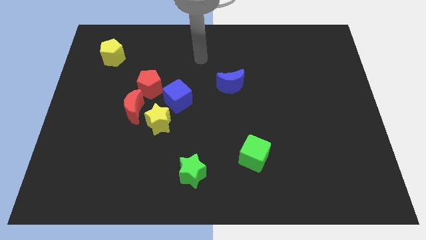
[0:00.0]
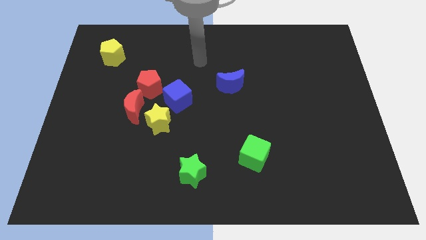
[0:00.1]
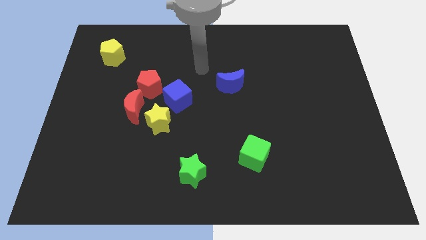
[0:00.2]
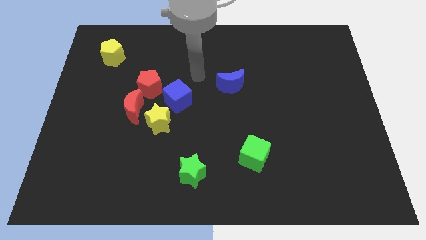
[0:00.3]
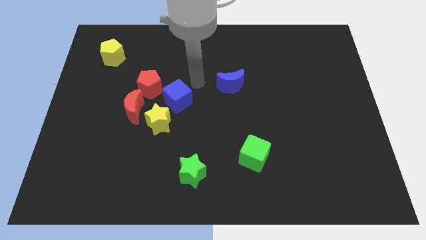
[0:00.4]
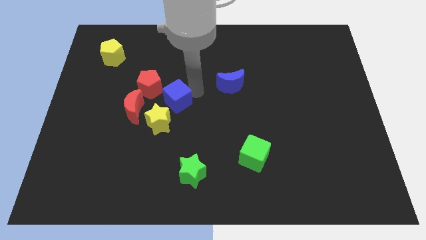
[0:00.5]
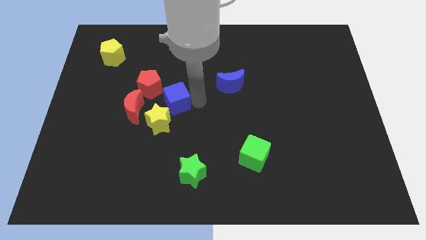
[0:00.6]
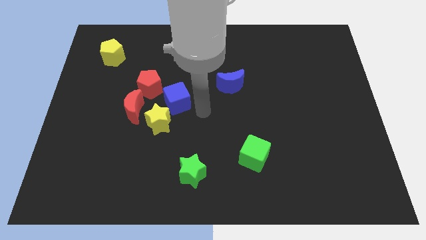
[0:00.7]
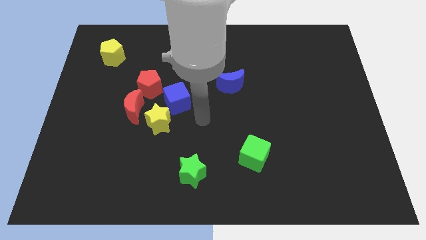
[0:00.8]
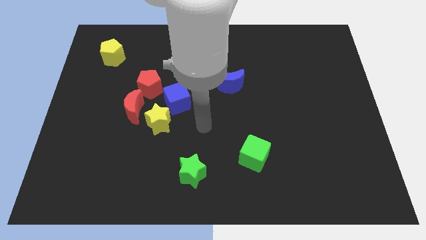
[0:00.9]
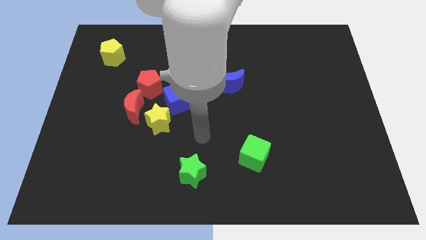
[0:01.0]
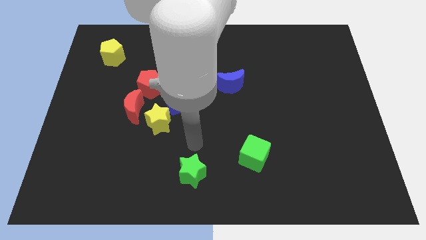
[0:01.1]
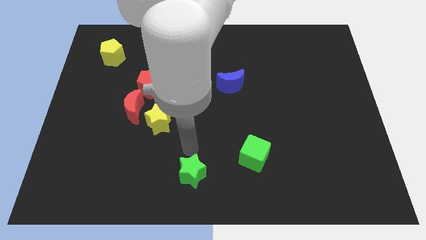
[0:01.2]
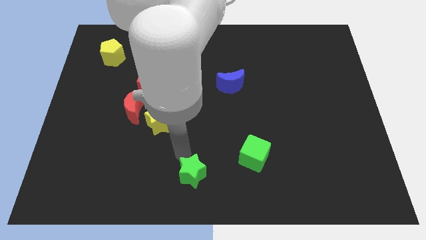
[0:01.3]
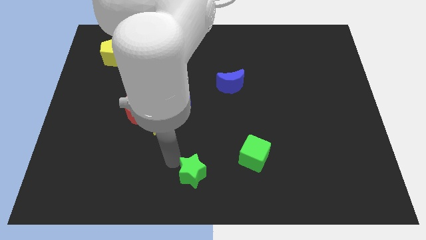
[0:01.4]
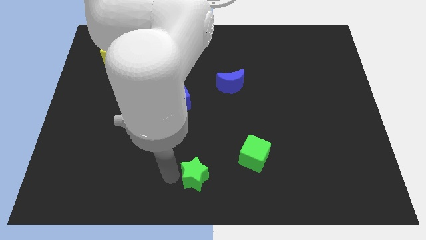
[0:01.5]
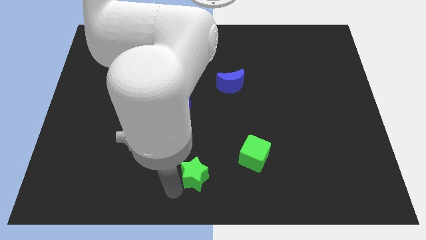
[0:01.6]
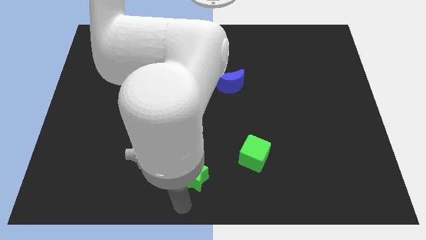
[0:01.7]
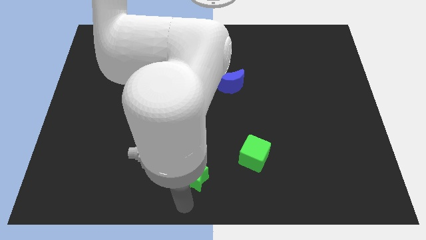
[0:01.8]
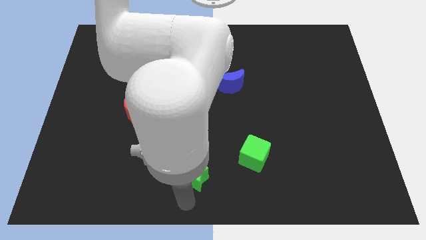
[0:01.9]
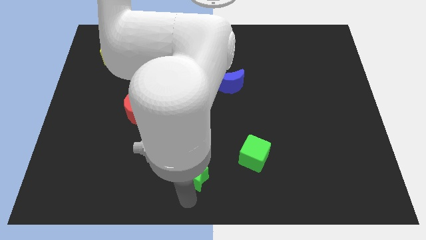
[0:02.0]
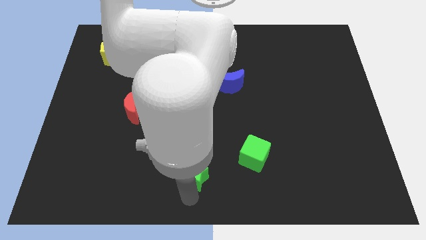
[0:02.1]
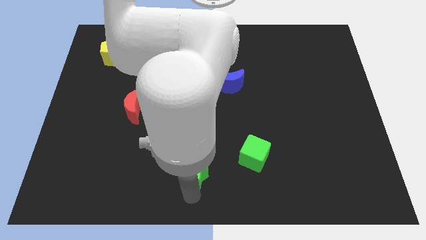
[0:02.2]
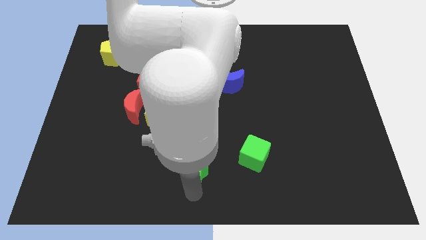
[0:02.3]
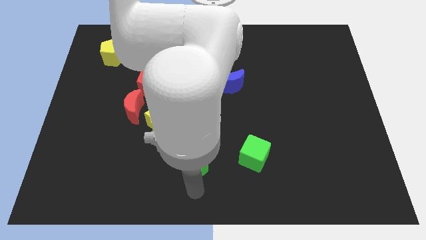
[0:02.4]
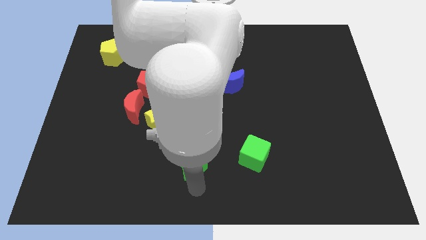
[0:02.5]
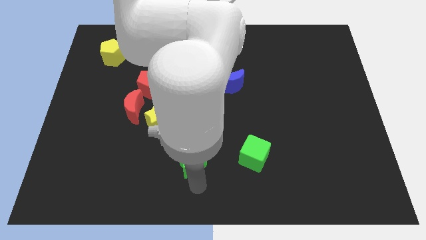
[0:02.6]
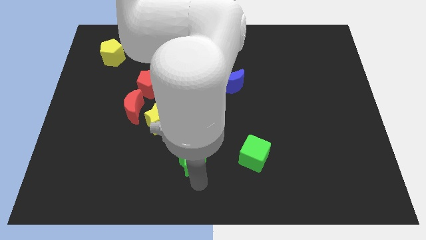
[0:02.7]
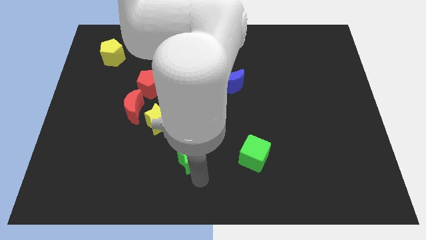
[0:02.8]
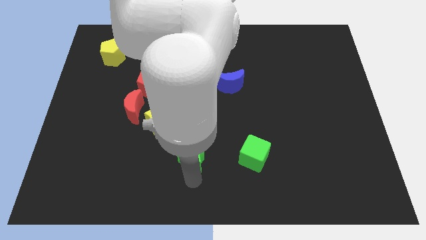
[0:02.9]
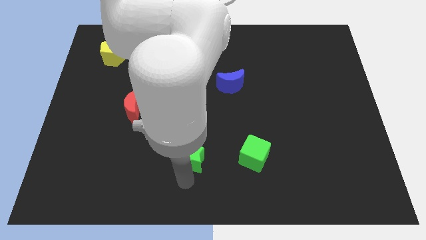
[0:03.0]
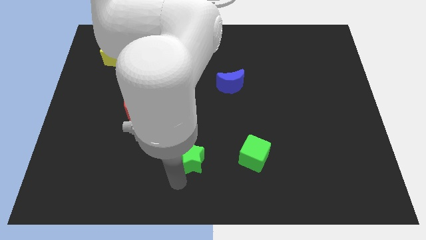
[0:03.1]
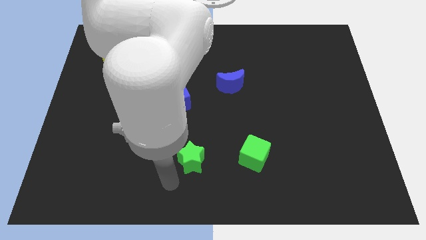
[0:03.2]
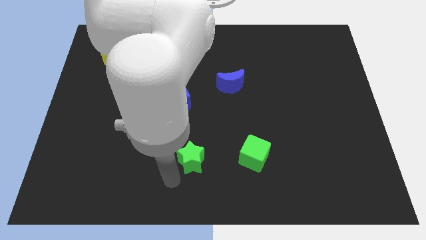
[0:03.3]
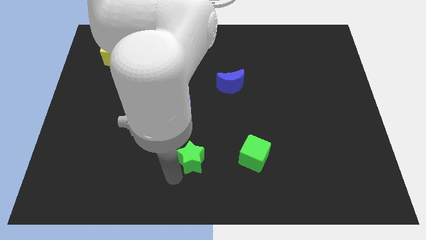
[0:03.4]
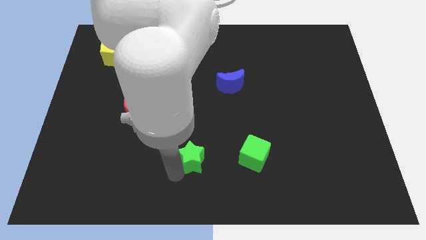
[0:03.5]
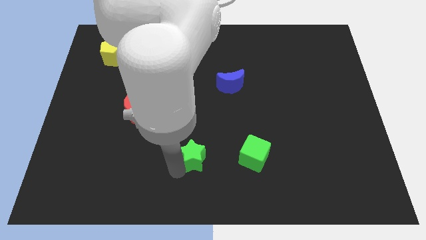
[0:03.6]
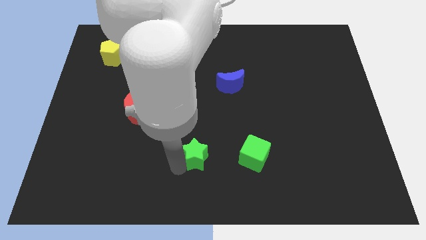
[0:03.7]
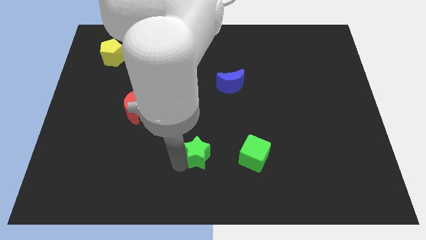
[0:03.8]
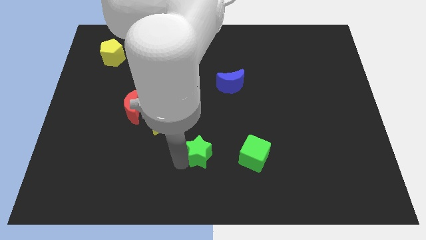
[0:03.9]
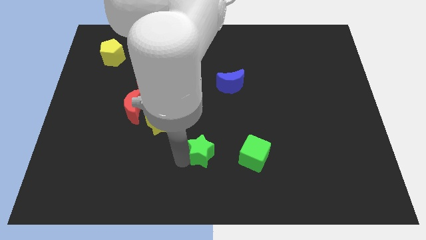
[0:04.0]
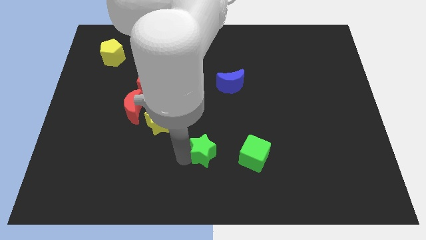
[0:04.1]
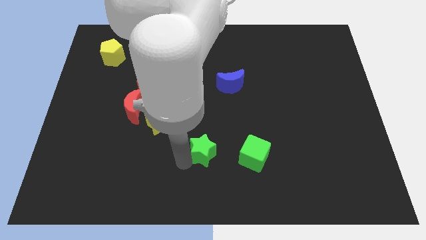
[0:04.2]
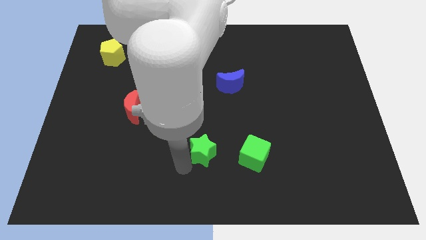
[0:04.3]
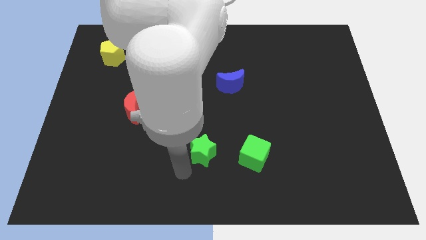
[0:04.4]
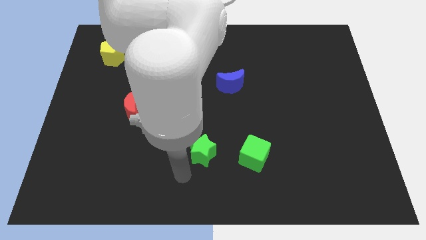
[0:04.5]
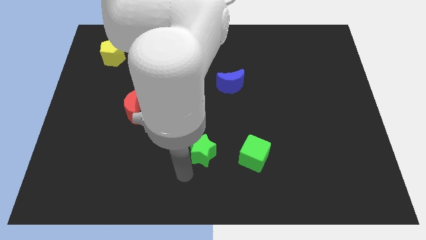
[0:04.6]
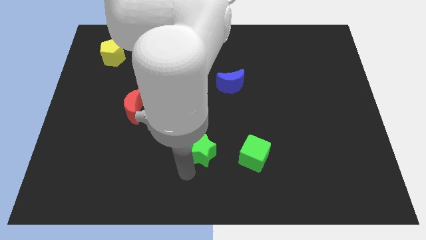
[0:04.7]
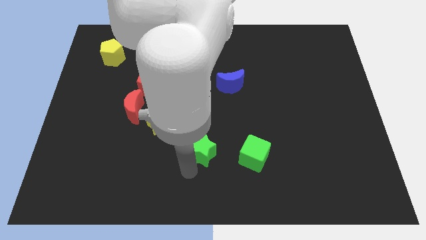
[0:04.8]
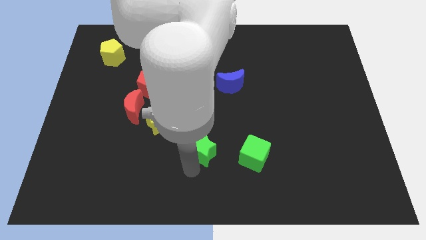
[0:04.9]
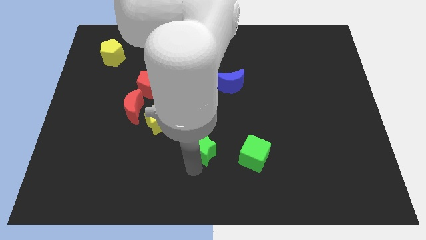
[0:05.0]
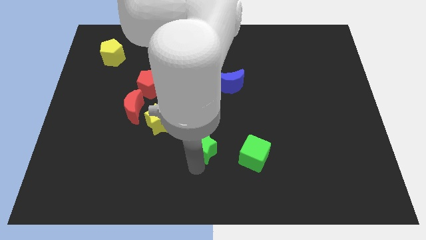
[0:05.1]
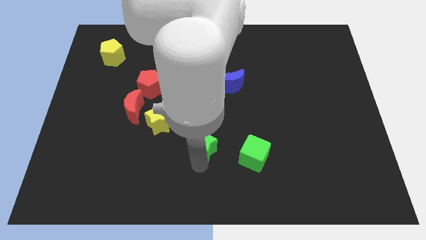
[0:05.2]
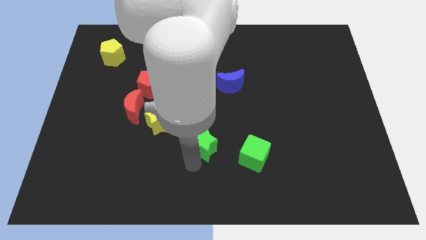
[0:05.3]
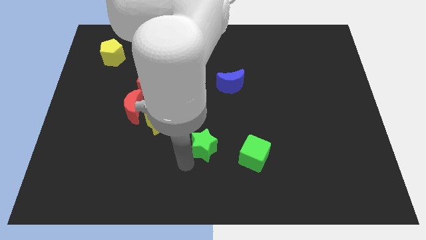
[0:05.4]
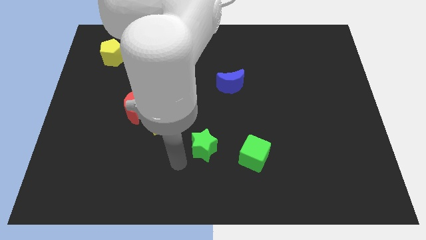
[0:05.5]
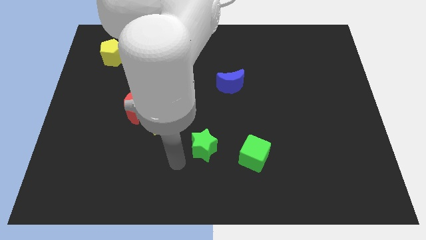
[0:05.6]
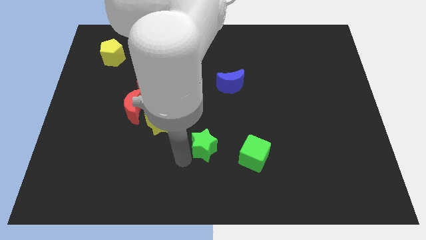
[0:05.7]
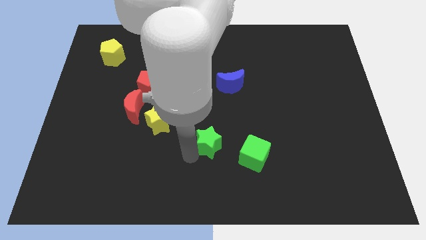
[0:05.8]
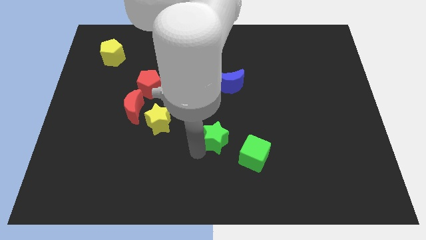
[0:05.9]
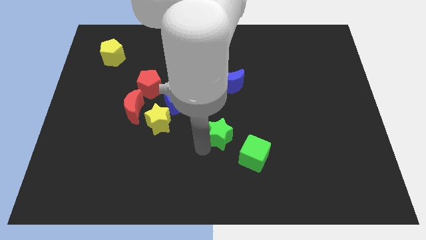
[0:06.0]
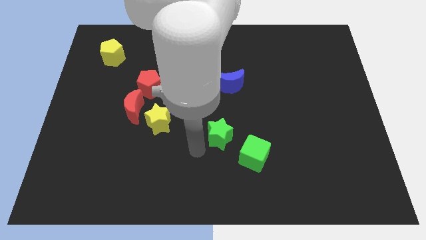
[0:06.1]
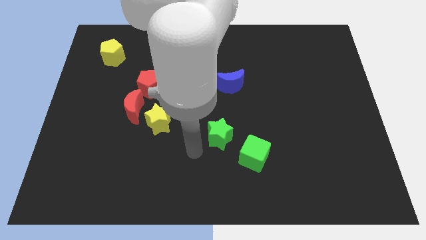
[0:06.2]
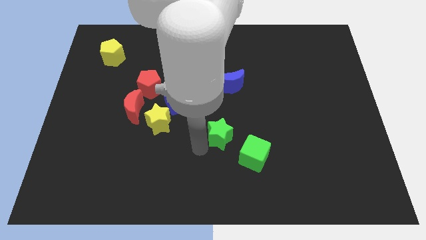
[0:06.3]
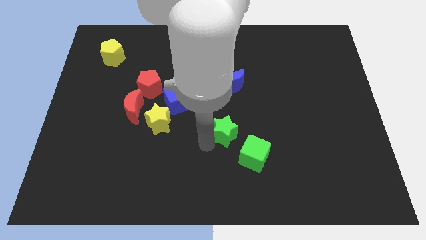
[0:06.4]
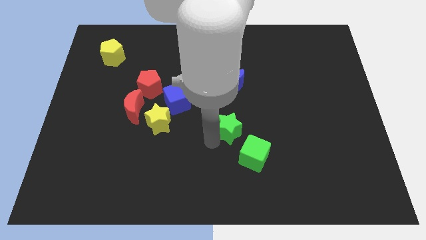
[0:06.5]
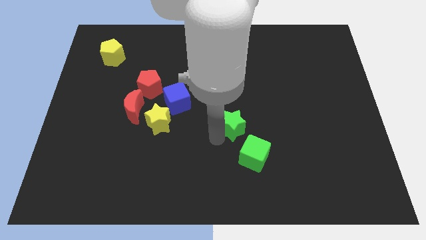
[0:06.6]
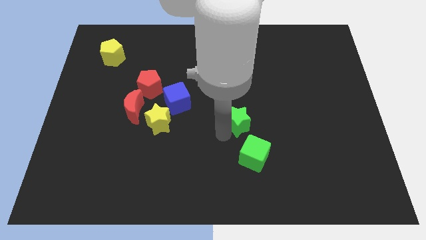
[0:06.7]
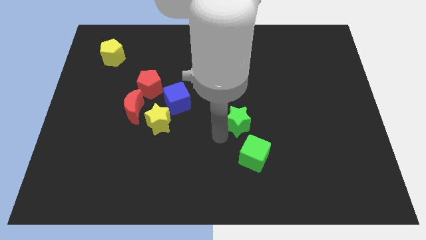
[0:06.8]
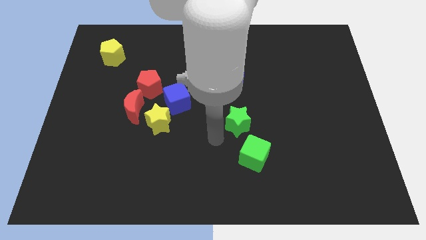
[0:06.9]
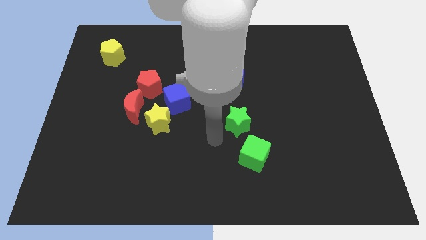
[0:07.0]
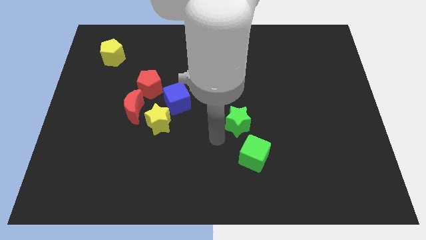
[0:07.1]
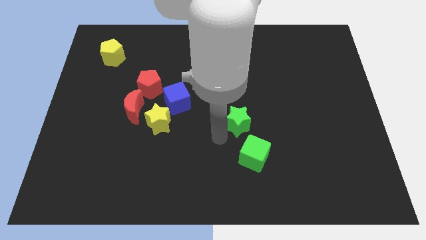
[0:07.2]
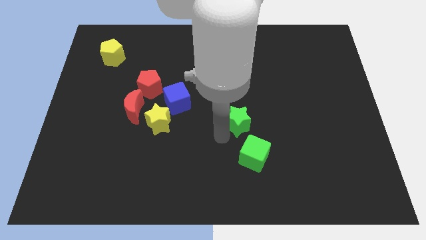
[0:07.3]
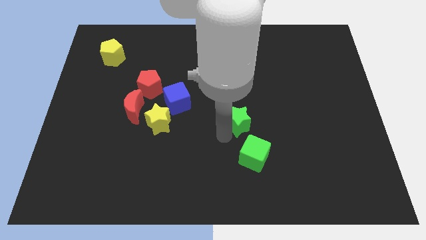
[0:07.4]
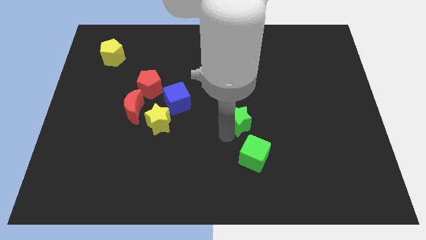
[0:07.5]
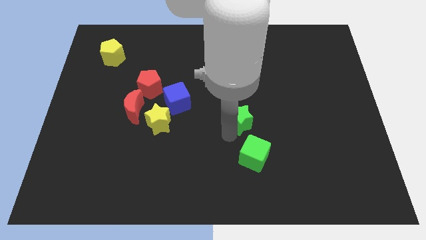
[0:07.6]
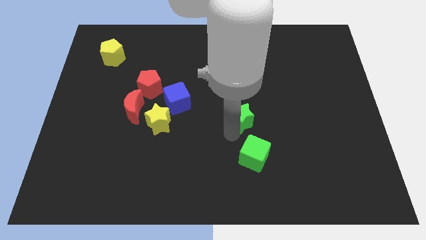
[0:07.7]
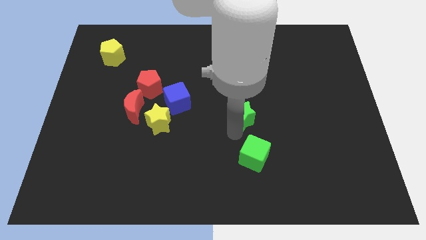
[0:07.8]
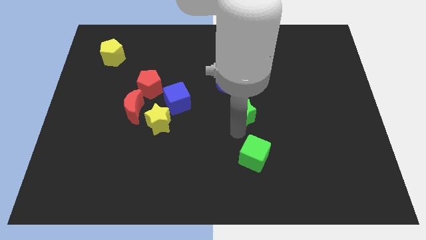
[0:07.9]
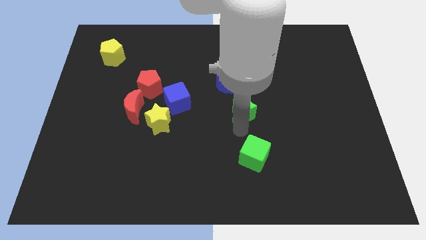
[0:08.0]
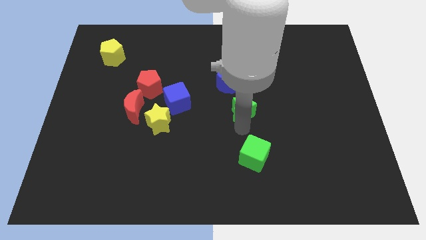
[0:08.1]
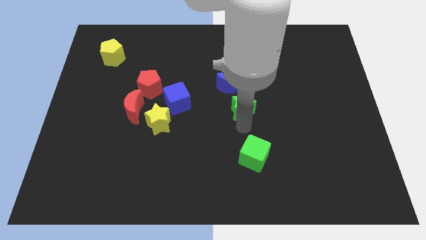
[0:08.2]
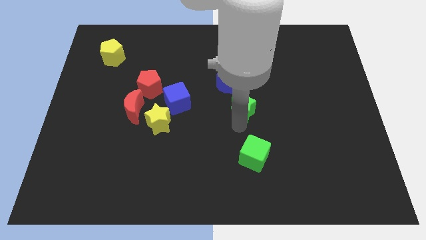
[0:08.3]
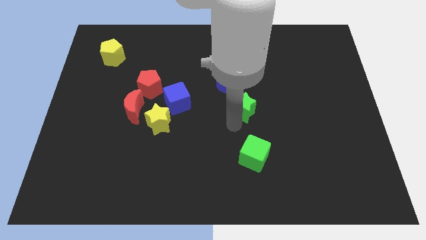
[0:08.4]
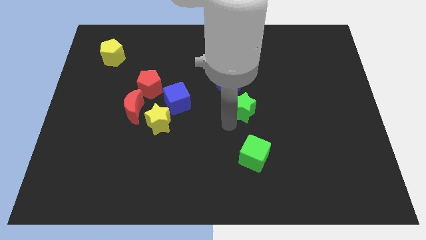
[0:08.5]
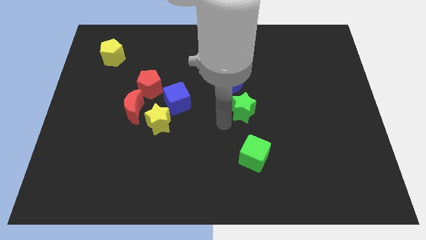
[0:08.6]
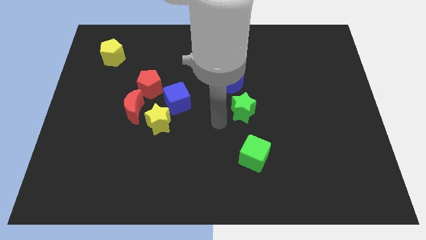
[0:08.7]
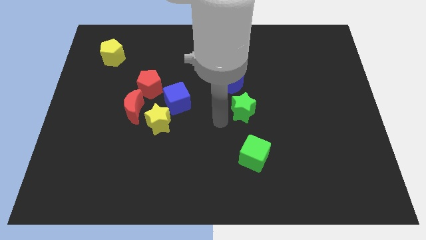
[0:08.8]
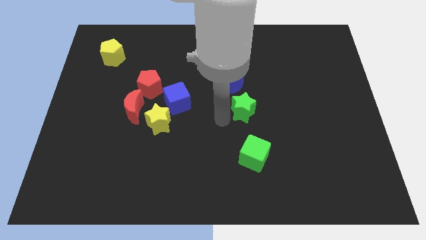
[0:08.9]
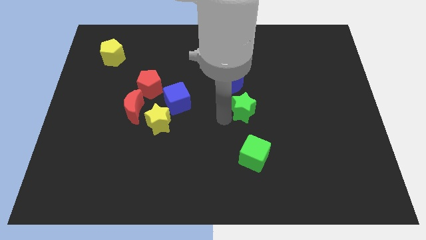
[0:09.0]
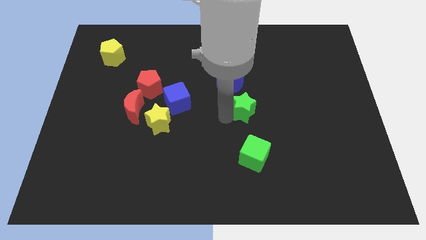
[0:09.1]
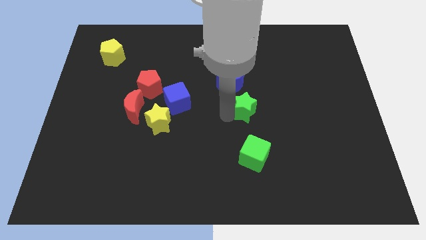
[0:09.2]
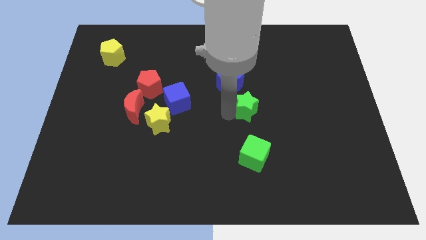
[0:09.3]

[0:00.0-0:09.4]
move the green star upwards and to the right diagonally
